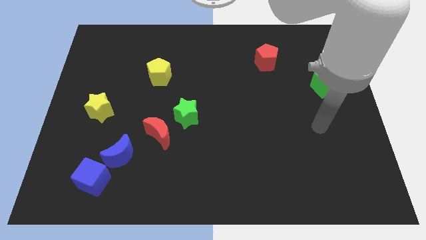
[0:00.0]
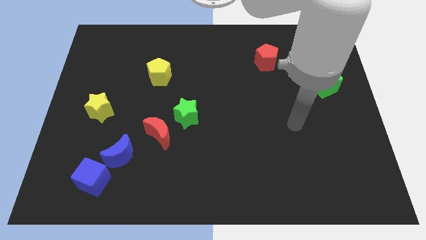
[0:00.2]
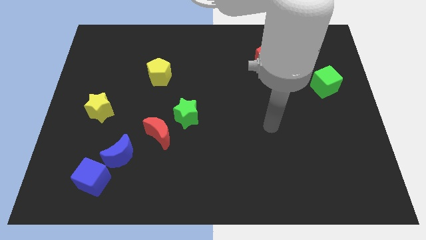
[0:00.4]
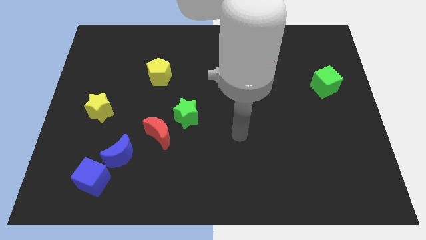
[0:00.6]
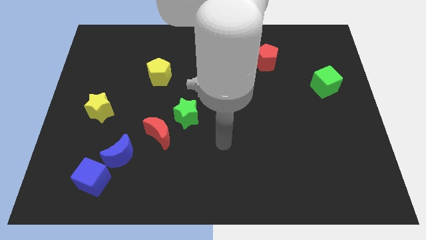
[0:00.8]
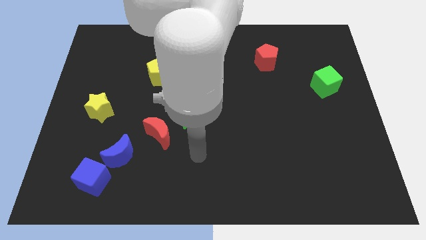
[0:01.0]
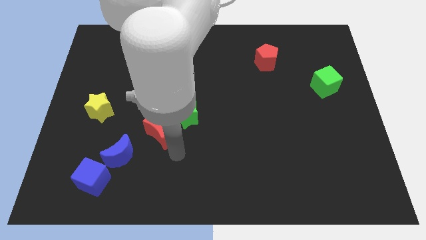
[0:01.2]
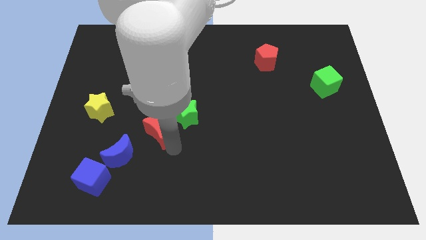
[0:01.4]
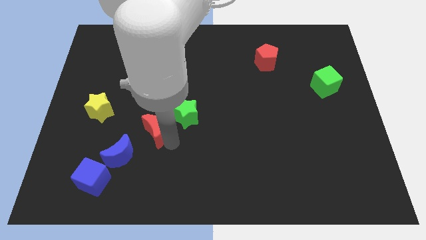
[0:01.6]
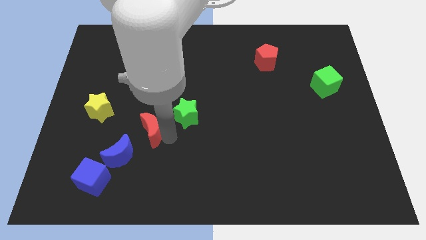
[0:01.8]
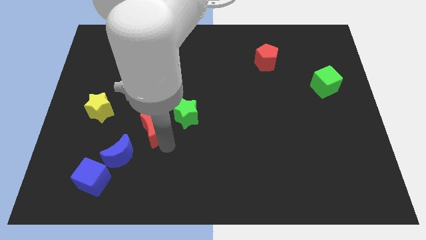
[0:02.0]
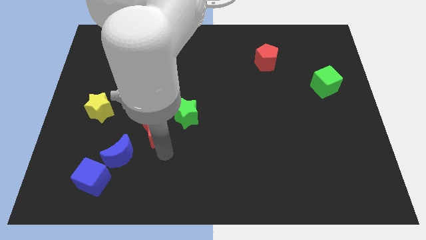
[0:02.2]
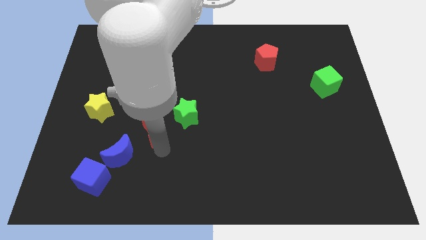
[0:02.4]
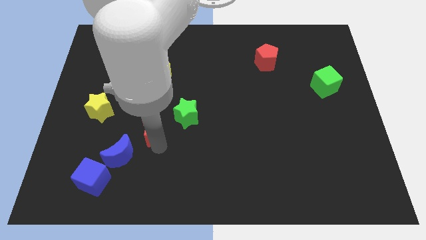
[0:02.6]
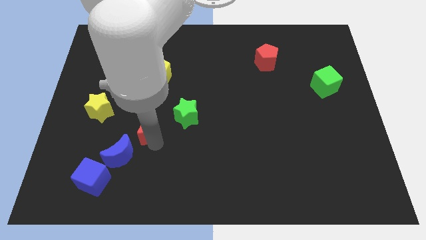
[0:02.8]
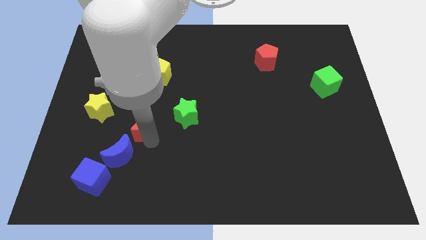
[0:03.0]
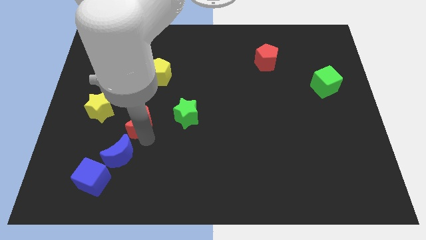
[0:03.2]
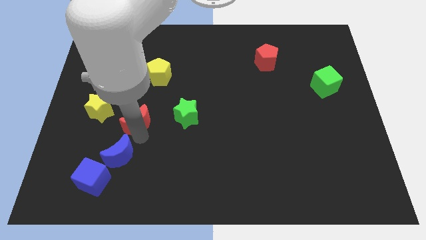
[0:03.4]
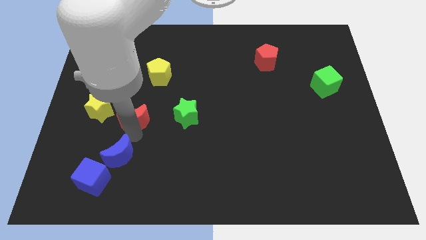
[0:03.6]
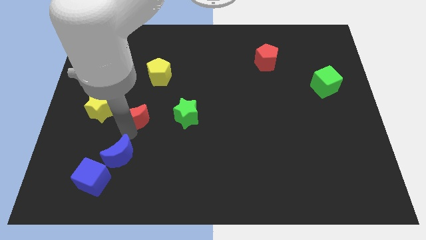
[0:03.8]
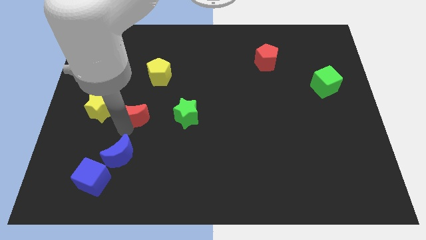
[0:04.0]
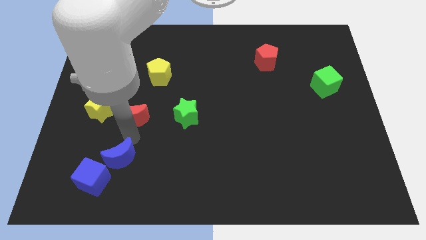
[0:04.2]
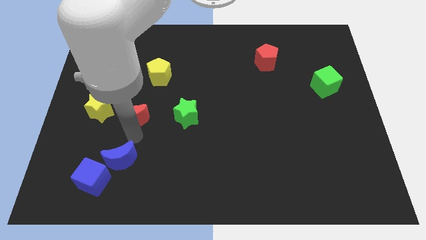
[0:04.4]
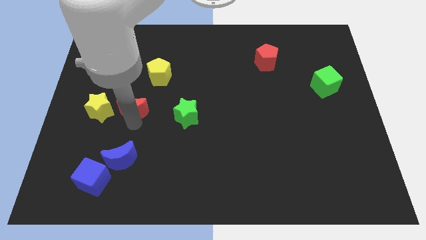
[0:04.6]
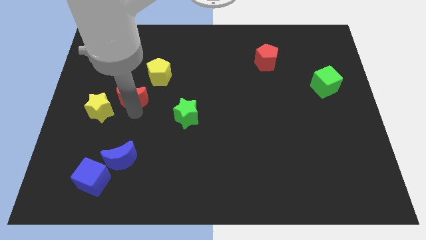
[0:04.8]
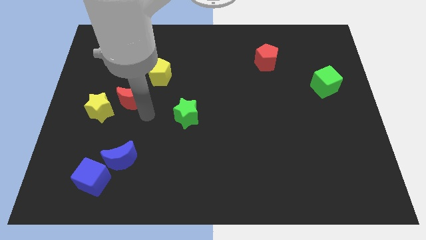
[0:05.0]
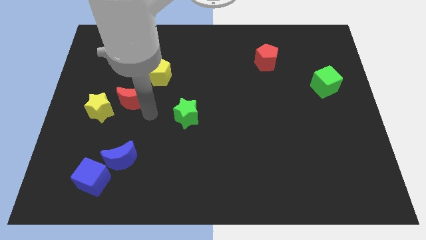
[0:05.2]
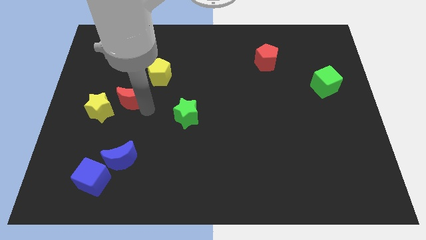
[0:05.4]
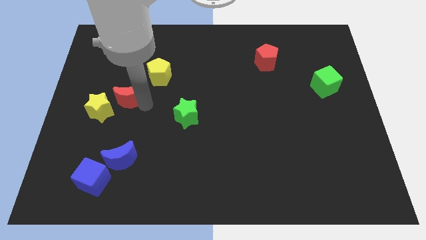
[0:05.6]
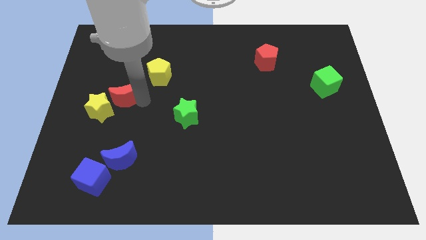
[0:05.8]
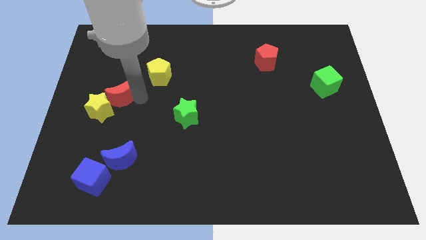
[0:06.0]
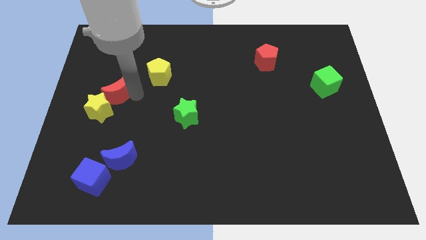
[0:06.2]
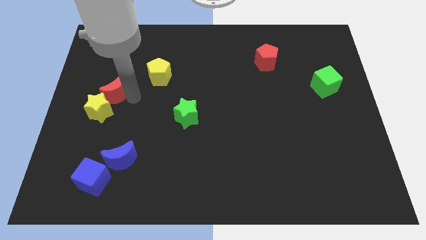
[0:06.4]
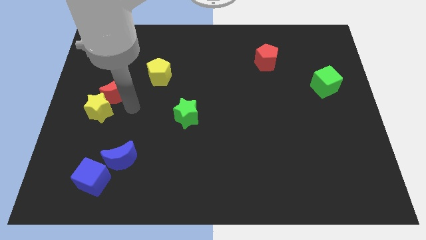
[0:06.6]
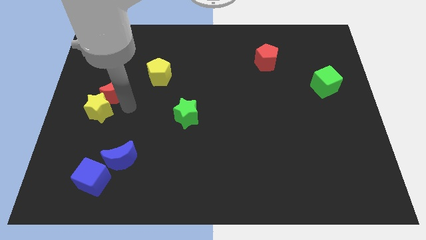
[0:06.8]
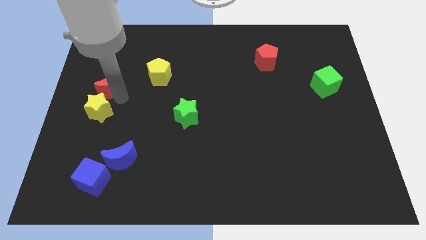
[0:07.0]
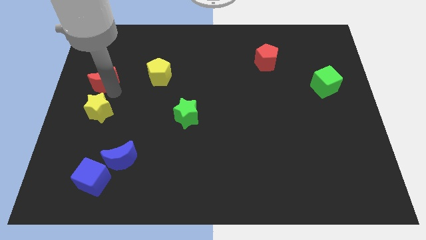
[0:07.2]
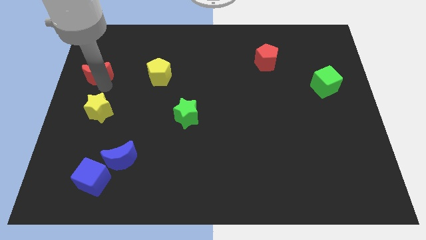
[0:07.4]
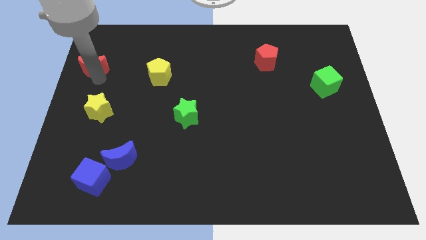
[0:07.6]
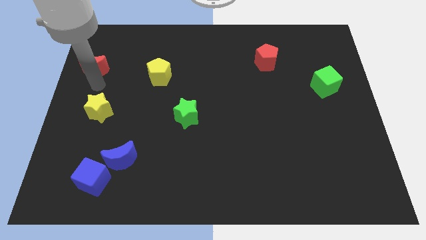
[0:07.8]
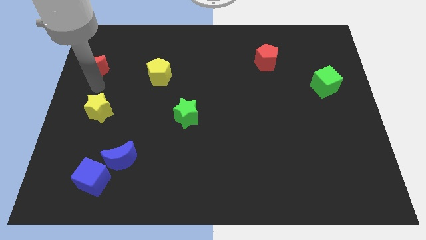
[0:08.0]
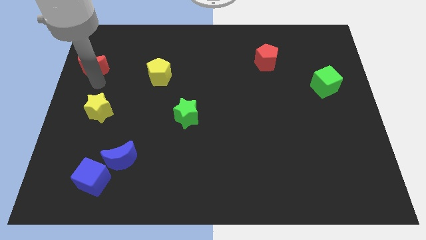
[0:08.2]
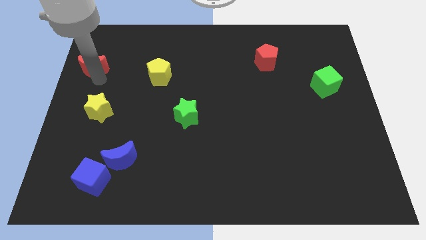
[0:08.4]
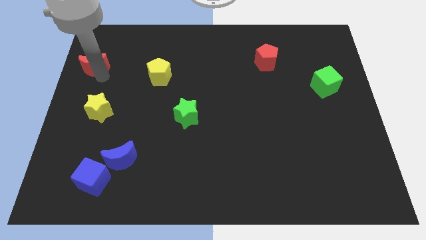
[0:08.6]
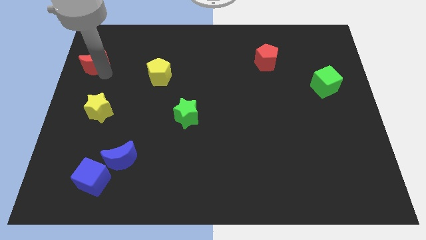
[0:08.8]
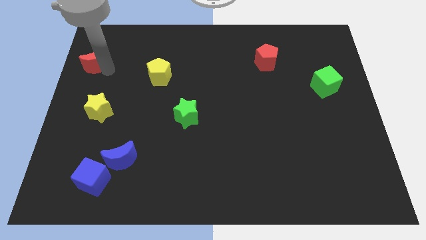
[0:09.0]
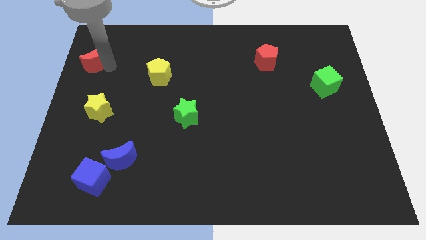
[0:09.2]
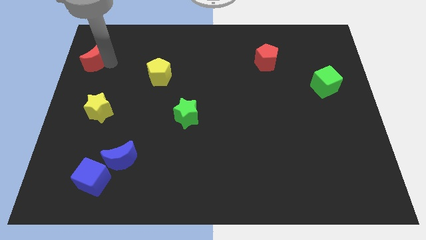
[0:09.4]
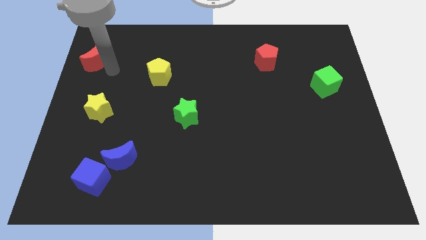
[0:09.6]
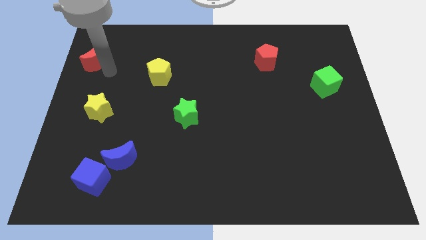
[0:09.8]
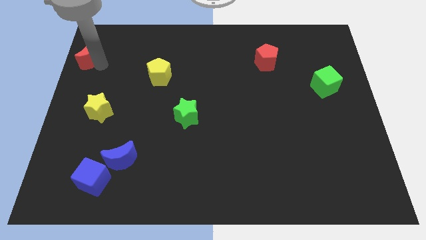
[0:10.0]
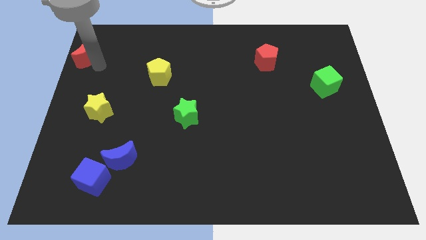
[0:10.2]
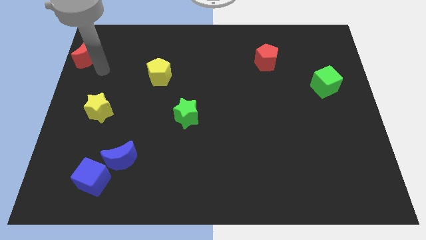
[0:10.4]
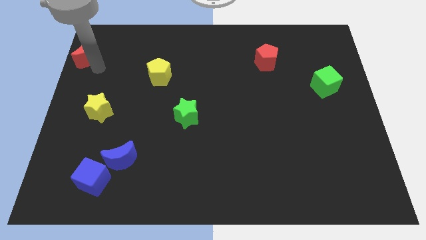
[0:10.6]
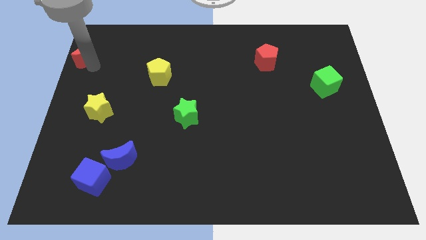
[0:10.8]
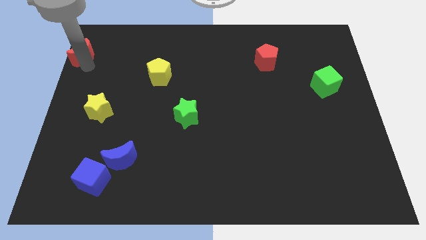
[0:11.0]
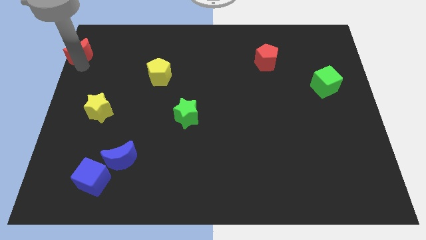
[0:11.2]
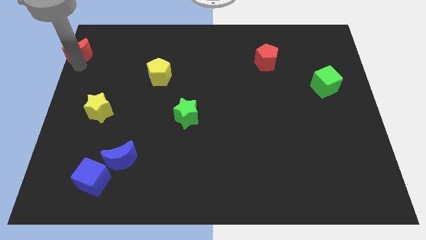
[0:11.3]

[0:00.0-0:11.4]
move the red moon to the top left of the board

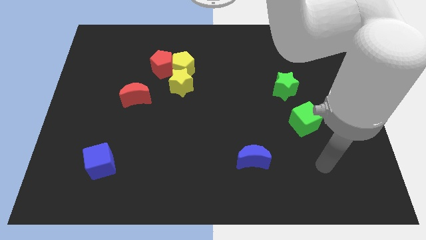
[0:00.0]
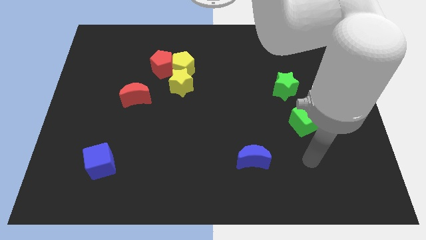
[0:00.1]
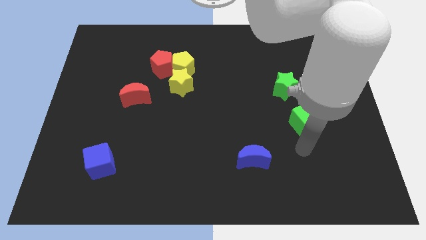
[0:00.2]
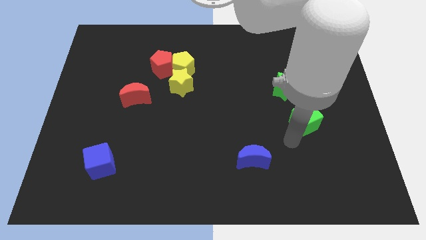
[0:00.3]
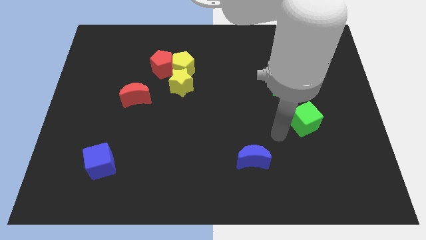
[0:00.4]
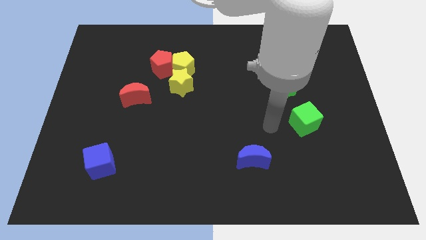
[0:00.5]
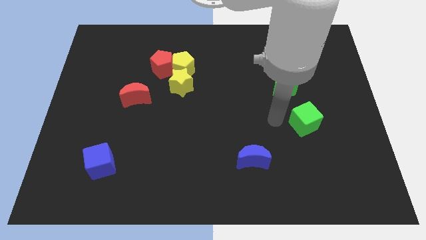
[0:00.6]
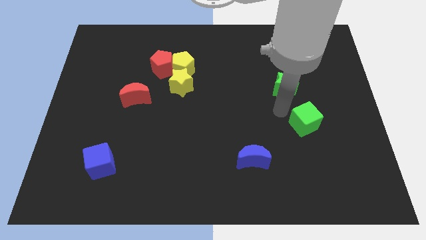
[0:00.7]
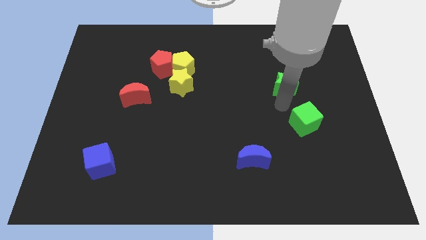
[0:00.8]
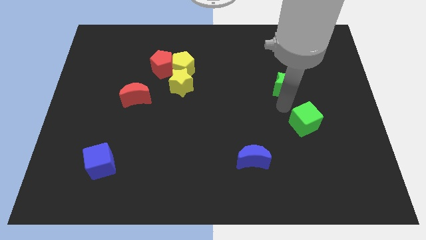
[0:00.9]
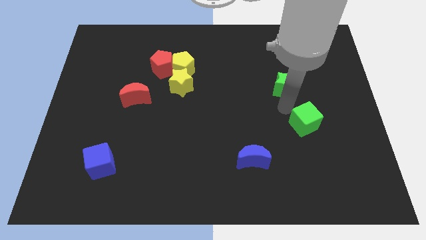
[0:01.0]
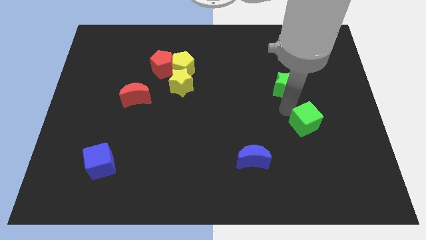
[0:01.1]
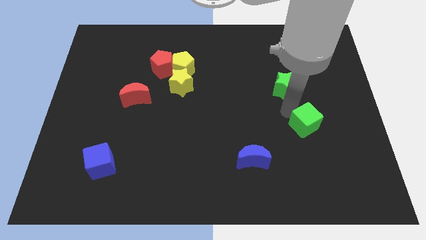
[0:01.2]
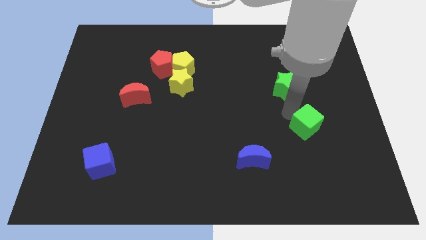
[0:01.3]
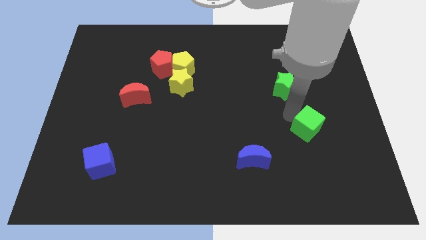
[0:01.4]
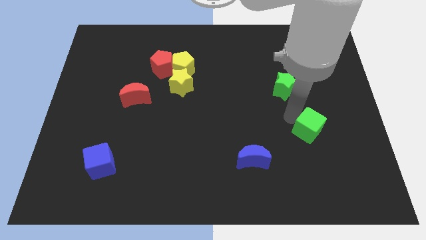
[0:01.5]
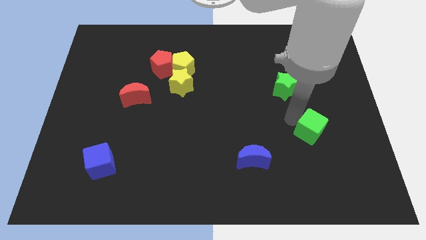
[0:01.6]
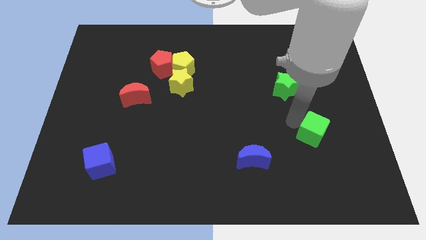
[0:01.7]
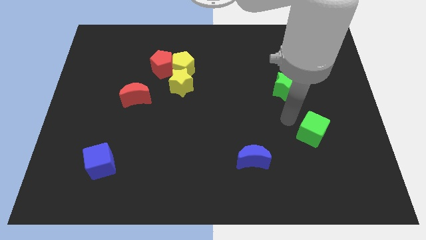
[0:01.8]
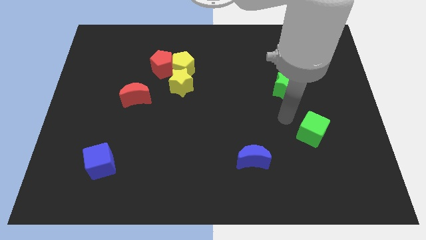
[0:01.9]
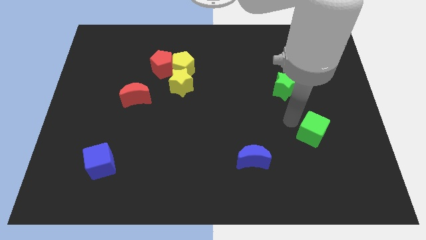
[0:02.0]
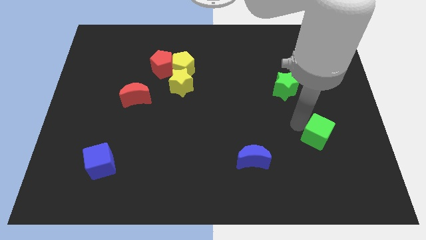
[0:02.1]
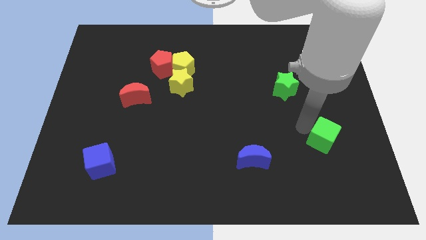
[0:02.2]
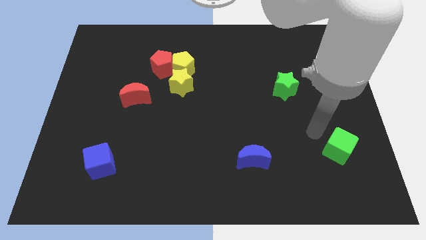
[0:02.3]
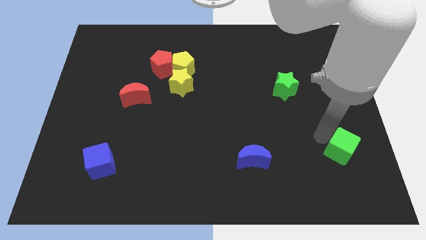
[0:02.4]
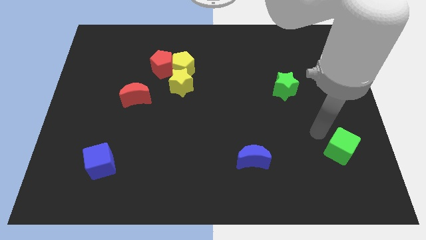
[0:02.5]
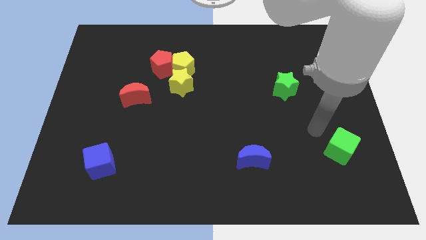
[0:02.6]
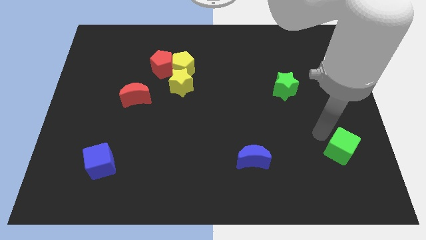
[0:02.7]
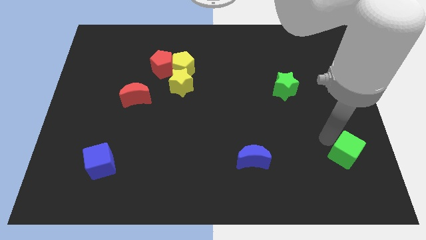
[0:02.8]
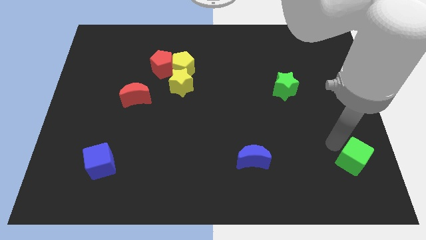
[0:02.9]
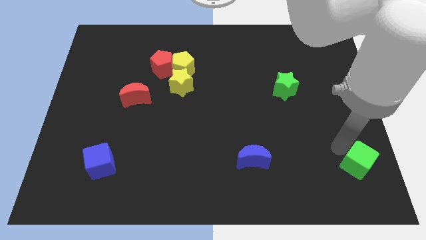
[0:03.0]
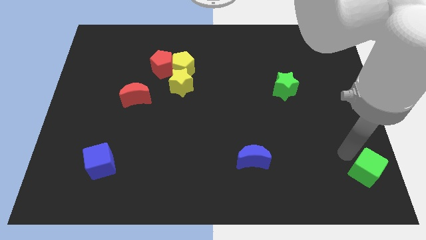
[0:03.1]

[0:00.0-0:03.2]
put the green cube to the bottom right
